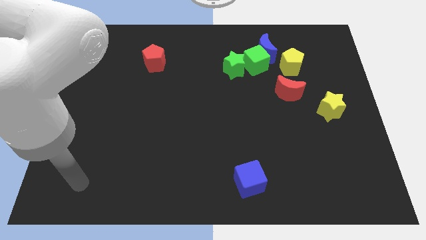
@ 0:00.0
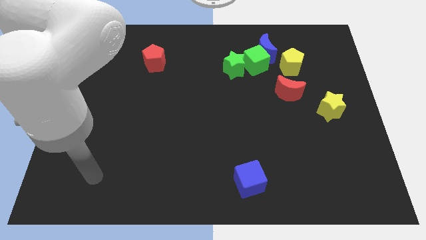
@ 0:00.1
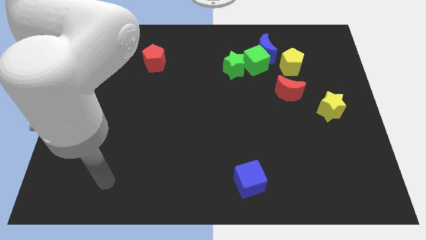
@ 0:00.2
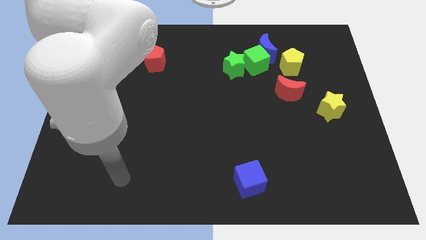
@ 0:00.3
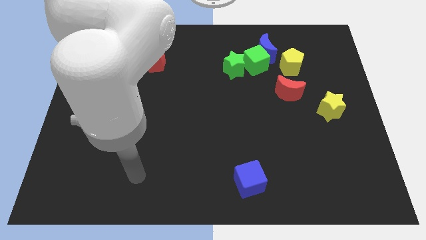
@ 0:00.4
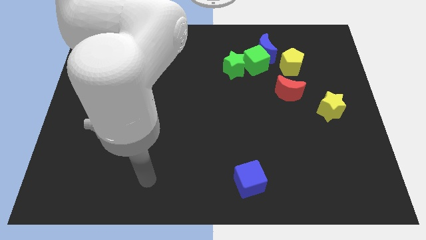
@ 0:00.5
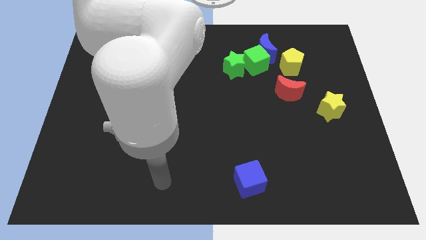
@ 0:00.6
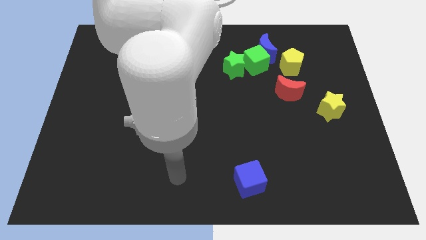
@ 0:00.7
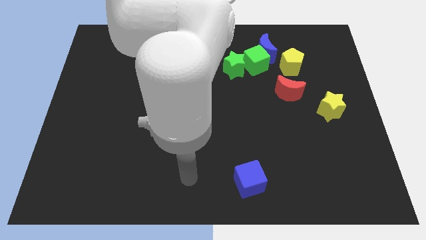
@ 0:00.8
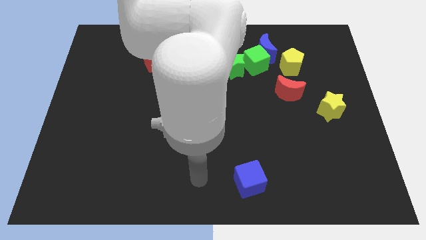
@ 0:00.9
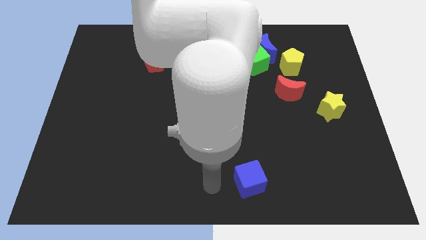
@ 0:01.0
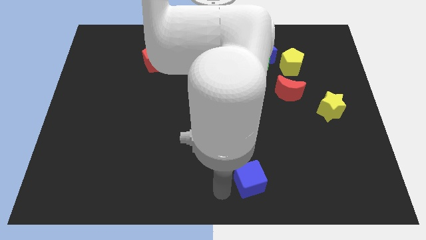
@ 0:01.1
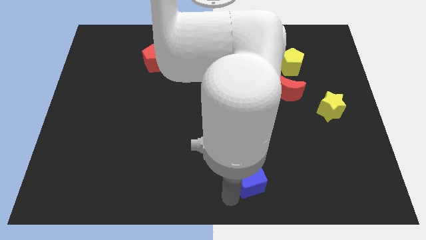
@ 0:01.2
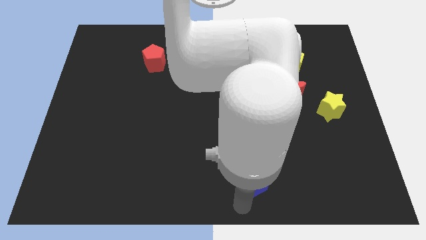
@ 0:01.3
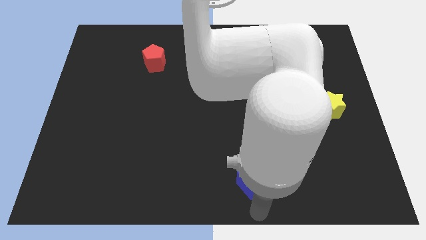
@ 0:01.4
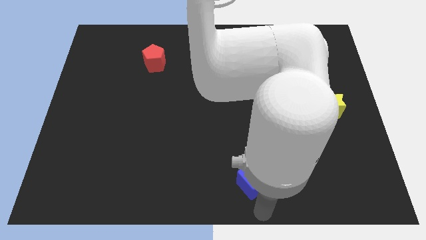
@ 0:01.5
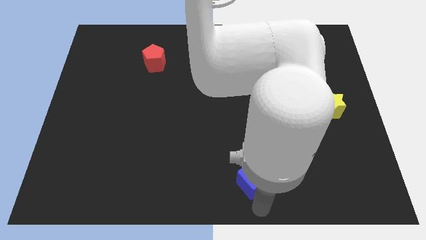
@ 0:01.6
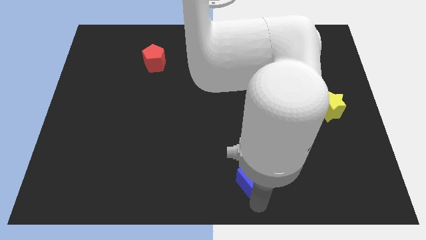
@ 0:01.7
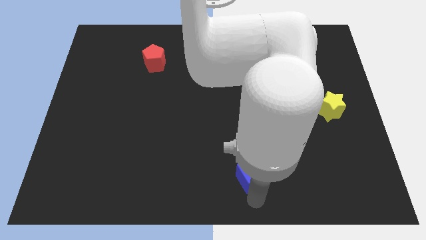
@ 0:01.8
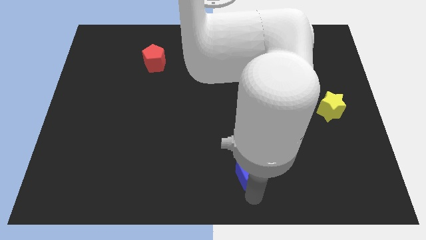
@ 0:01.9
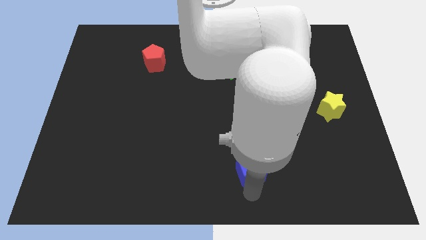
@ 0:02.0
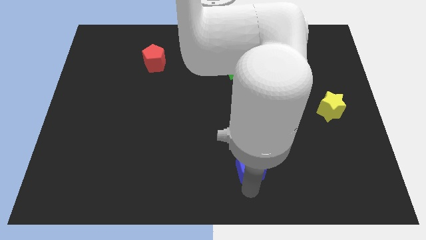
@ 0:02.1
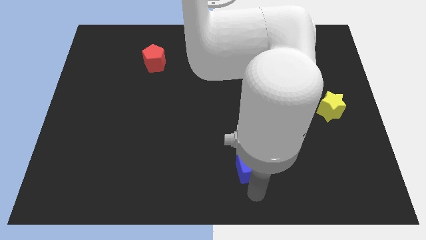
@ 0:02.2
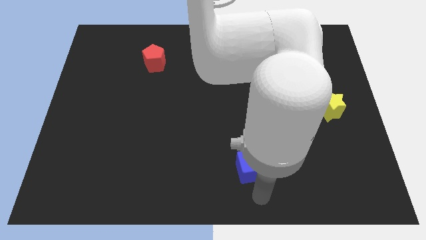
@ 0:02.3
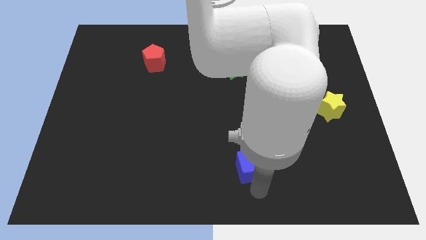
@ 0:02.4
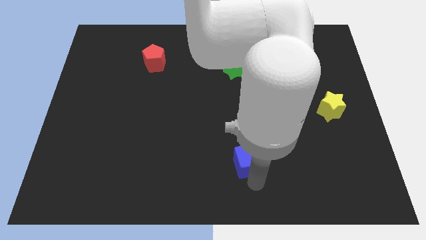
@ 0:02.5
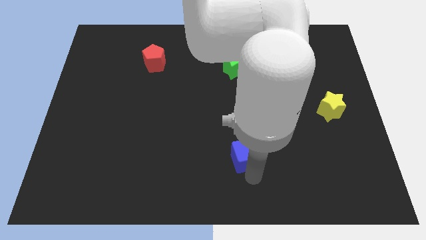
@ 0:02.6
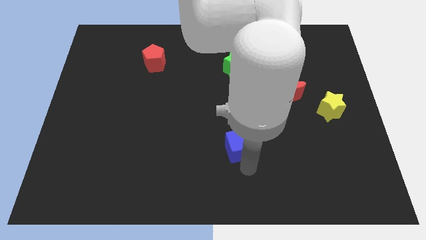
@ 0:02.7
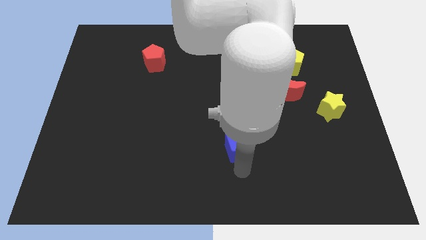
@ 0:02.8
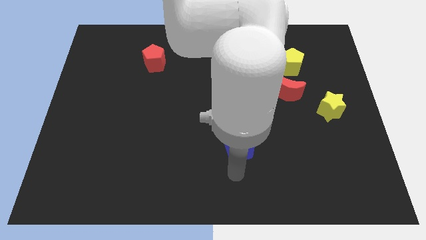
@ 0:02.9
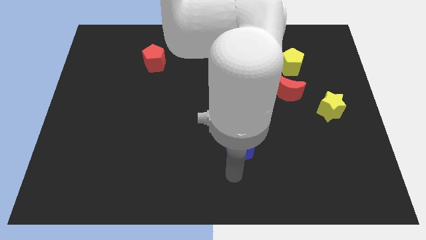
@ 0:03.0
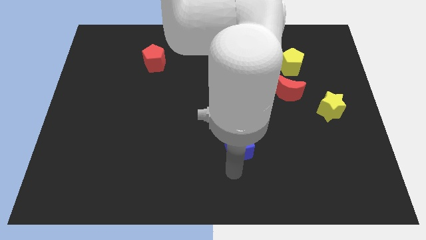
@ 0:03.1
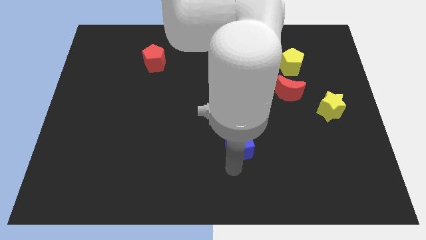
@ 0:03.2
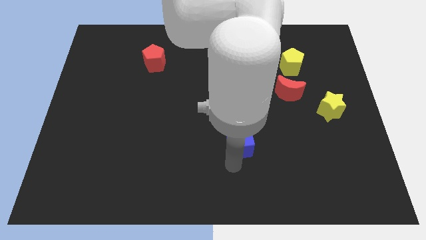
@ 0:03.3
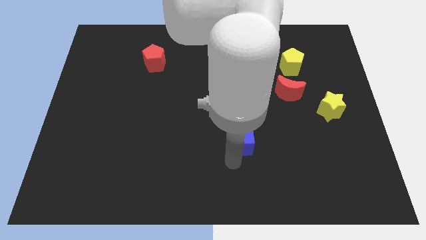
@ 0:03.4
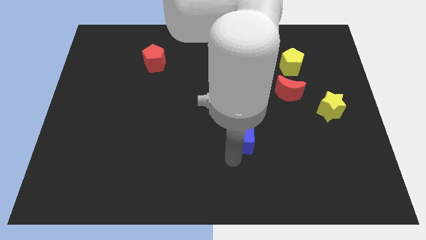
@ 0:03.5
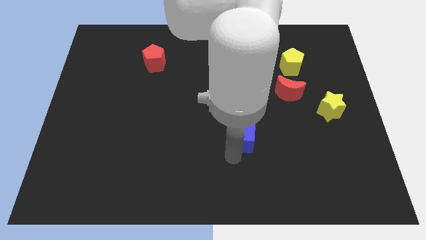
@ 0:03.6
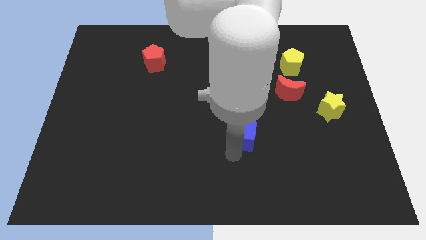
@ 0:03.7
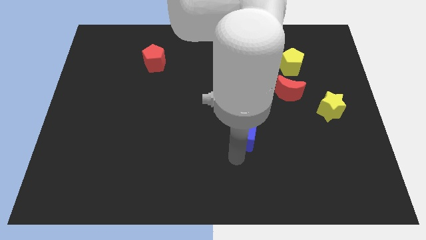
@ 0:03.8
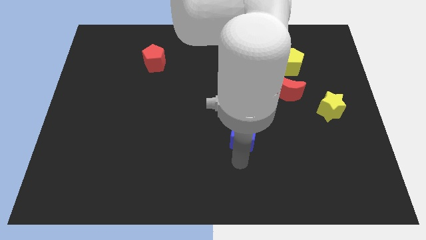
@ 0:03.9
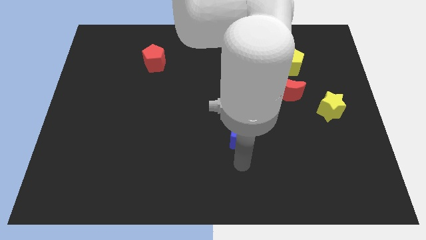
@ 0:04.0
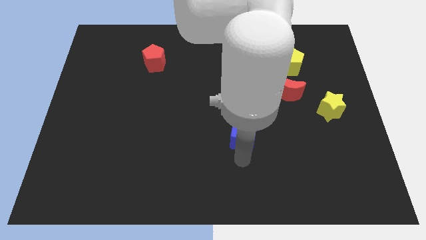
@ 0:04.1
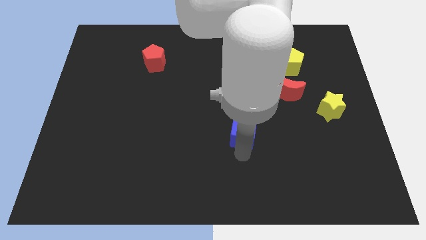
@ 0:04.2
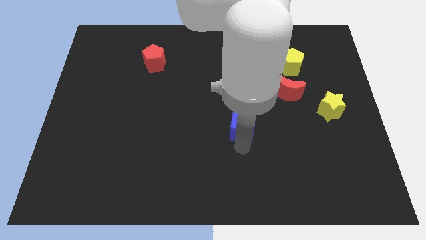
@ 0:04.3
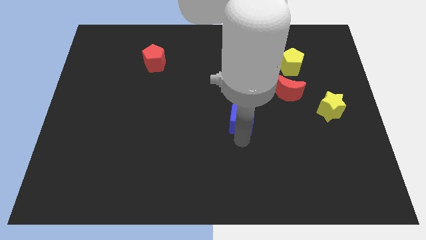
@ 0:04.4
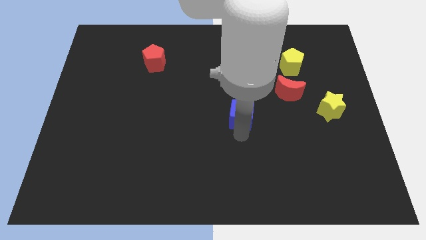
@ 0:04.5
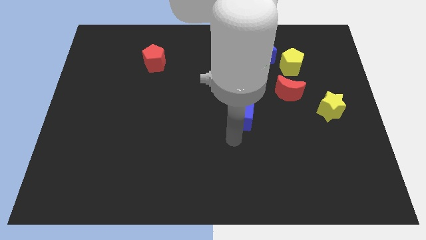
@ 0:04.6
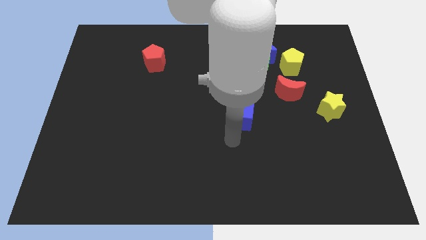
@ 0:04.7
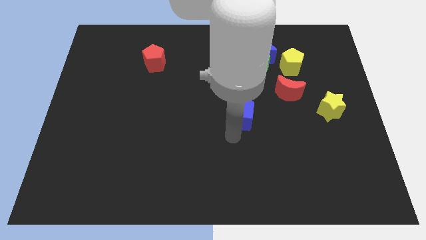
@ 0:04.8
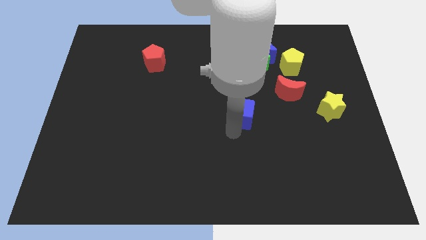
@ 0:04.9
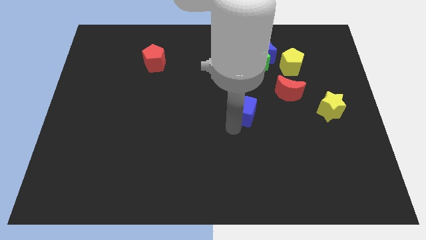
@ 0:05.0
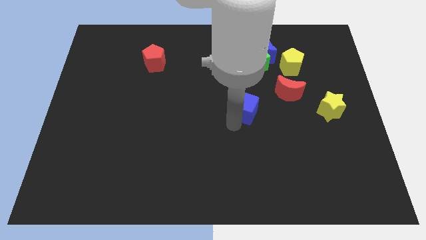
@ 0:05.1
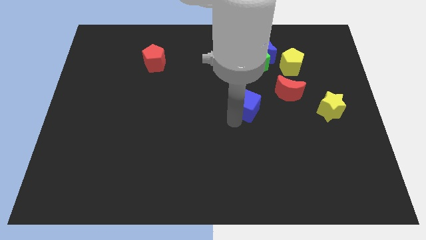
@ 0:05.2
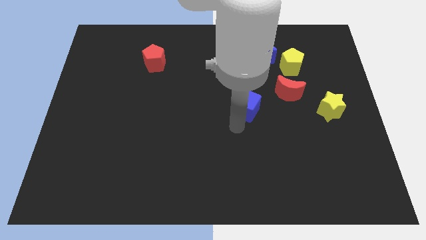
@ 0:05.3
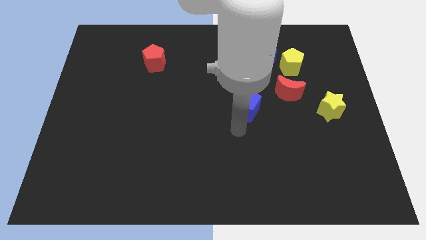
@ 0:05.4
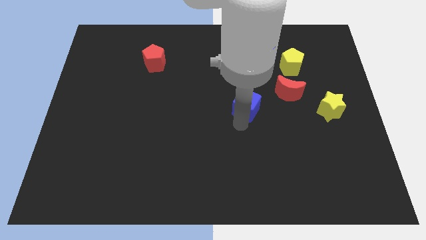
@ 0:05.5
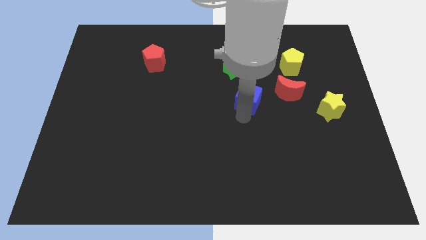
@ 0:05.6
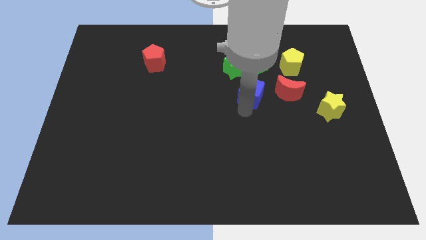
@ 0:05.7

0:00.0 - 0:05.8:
move the blue cube to the bottom right of the green star

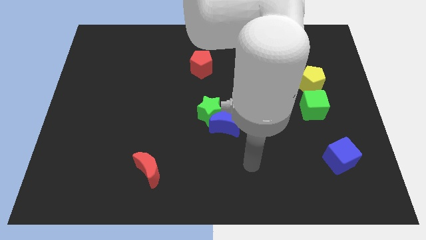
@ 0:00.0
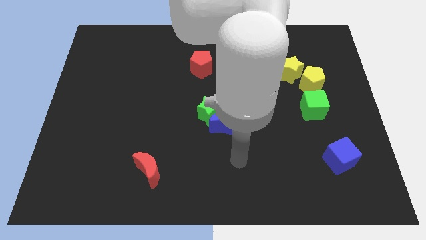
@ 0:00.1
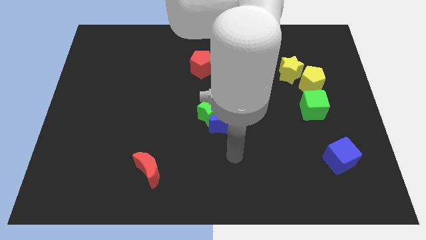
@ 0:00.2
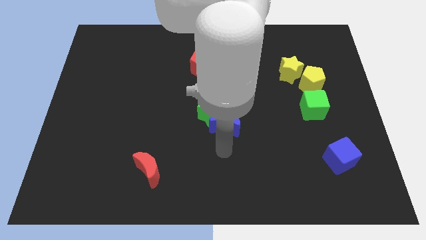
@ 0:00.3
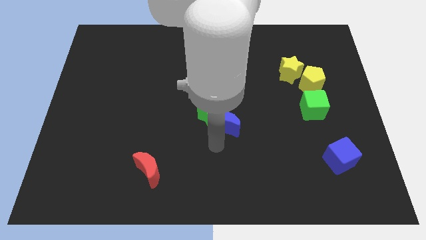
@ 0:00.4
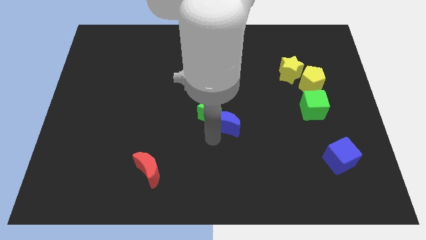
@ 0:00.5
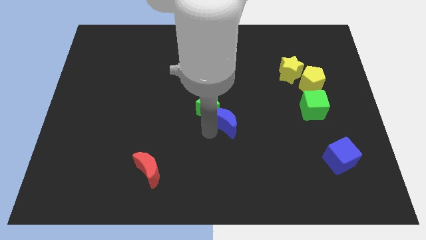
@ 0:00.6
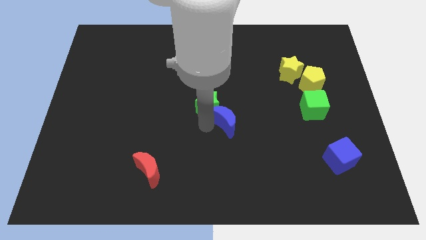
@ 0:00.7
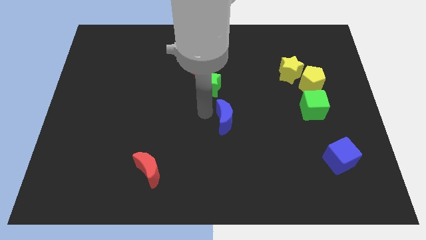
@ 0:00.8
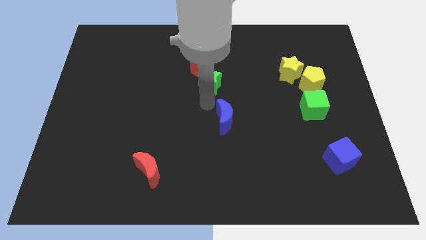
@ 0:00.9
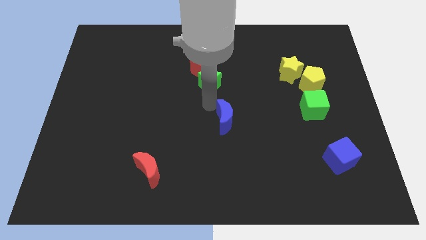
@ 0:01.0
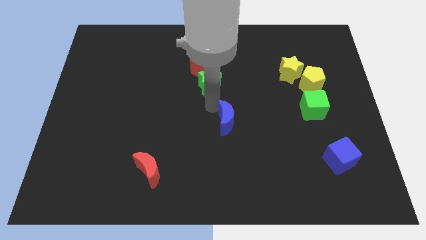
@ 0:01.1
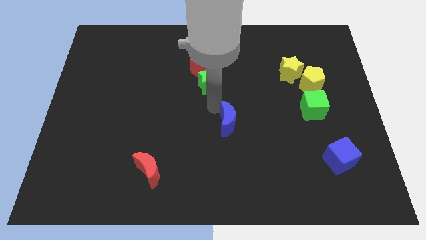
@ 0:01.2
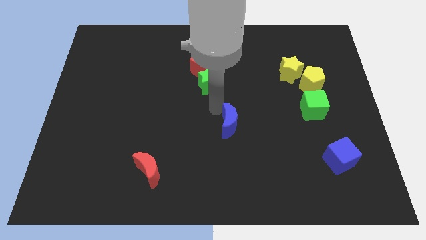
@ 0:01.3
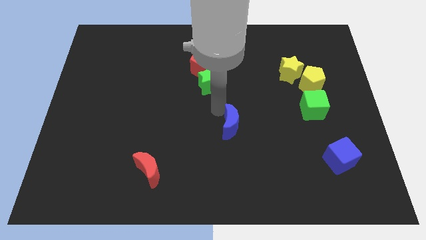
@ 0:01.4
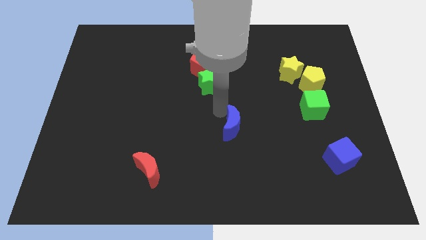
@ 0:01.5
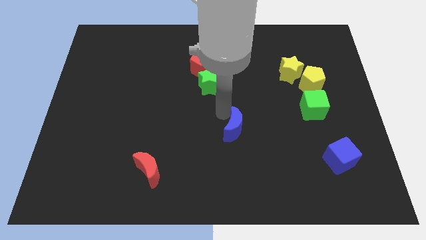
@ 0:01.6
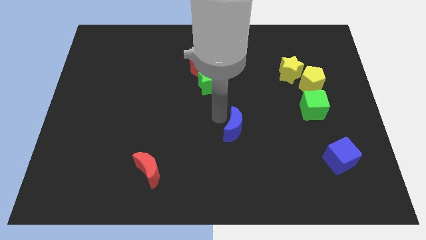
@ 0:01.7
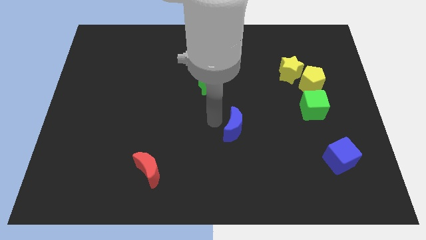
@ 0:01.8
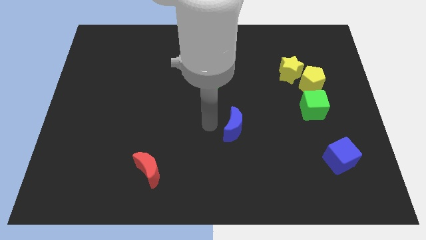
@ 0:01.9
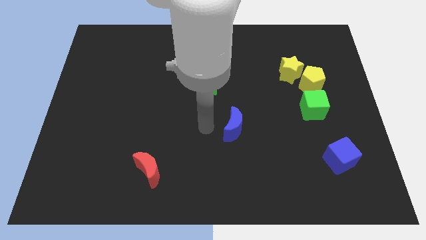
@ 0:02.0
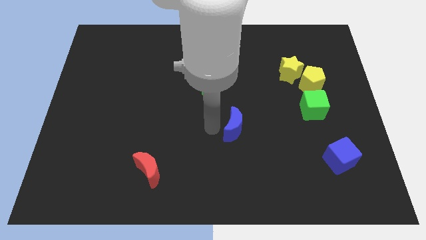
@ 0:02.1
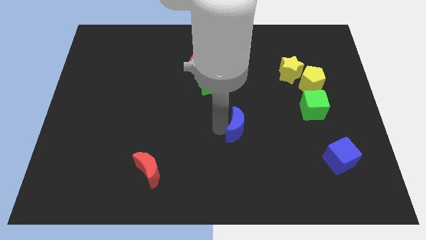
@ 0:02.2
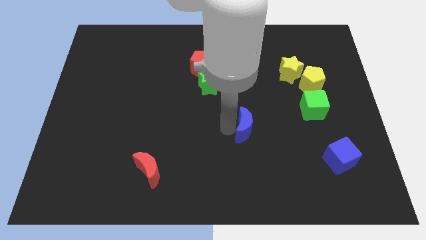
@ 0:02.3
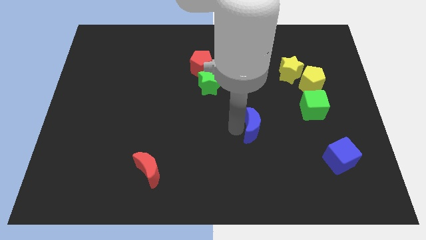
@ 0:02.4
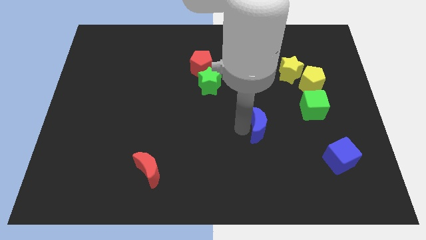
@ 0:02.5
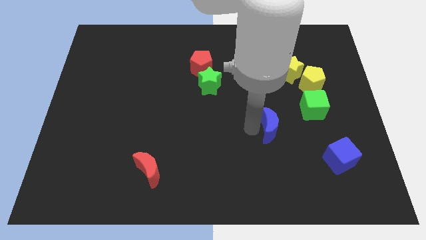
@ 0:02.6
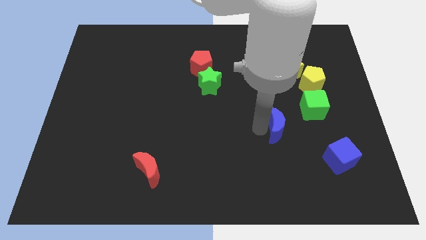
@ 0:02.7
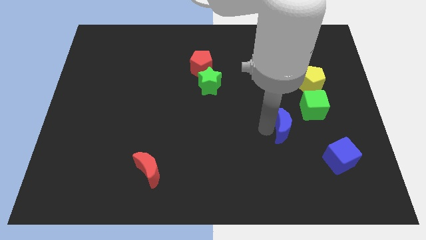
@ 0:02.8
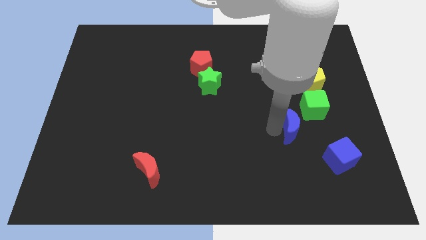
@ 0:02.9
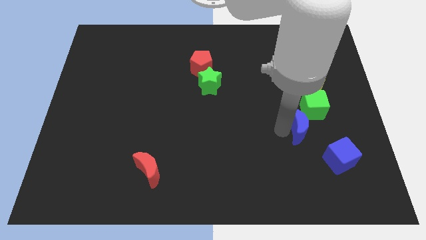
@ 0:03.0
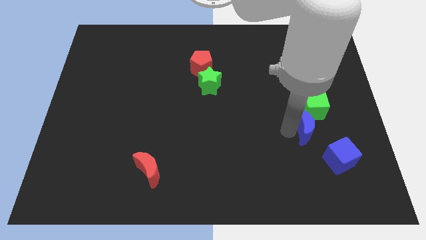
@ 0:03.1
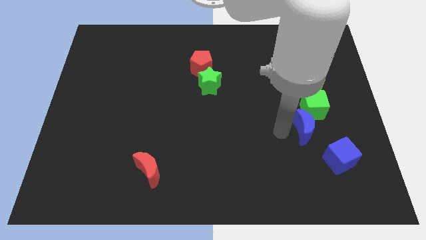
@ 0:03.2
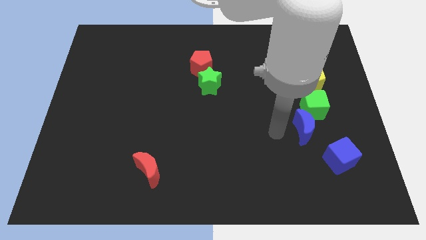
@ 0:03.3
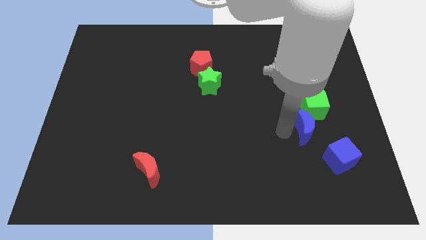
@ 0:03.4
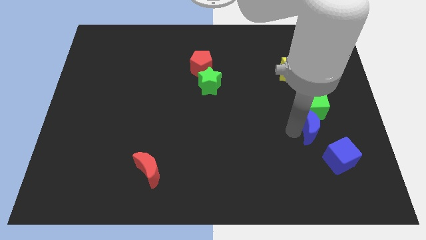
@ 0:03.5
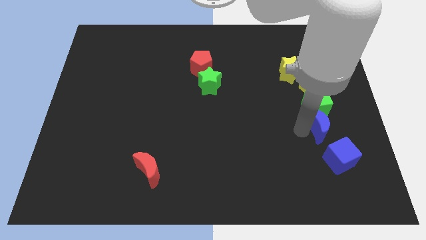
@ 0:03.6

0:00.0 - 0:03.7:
push the blue moon to the bottom right side of the green cube
